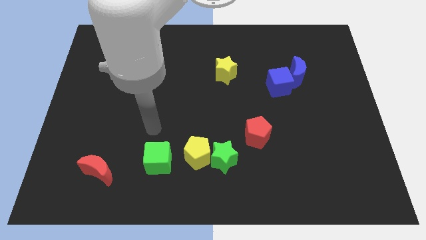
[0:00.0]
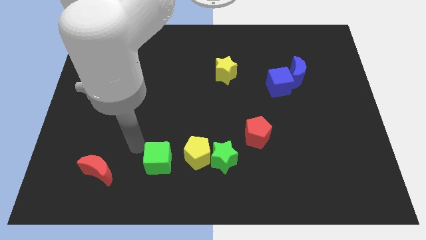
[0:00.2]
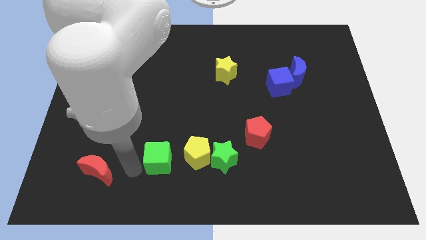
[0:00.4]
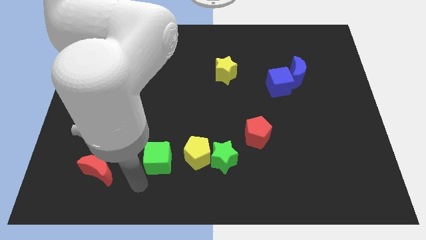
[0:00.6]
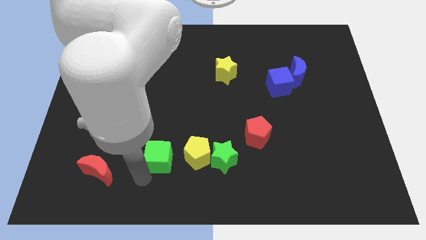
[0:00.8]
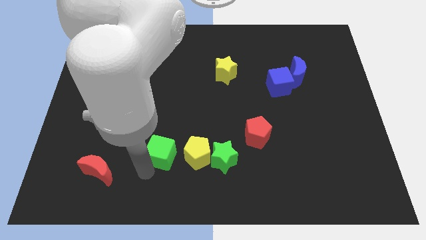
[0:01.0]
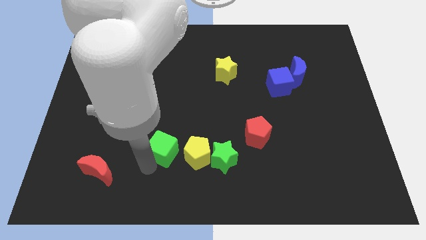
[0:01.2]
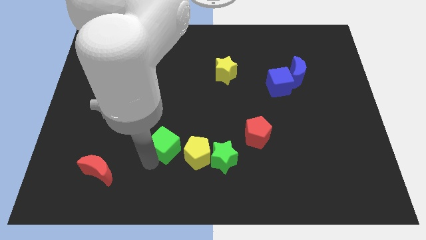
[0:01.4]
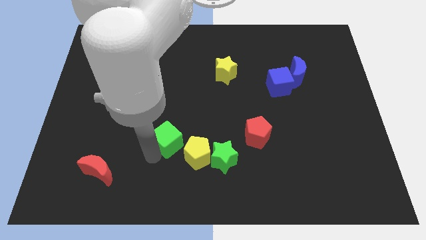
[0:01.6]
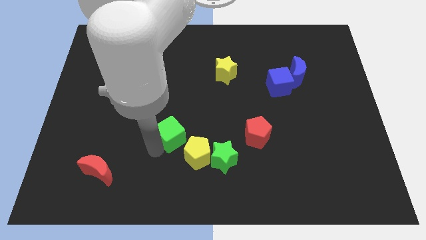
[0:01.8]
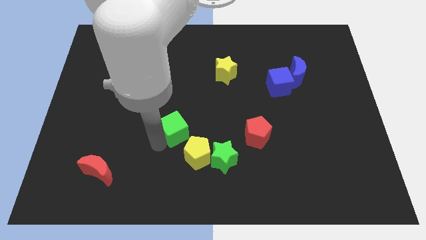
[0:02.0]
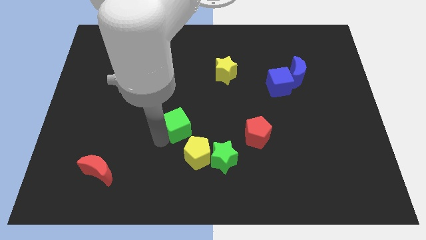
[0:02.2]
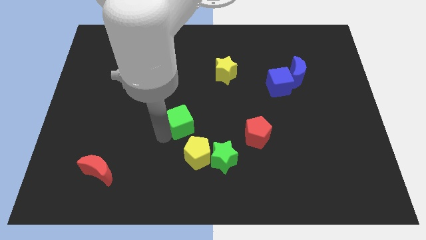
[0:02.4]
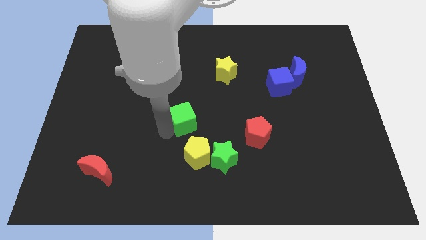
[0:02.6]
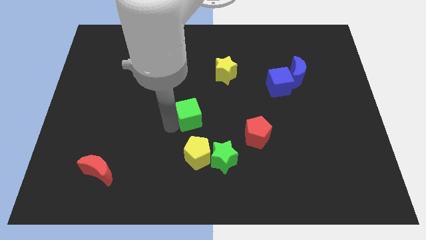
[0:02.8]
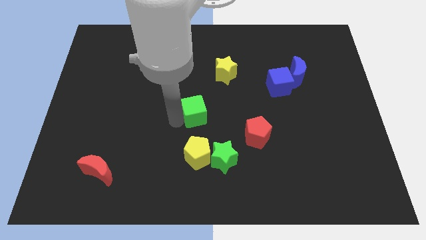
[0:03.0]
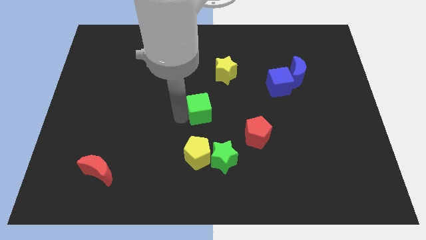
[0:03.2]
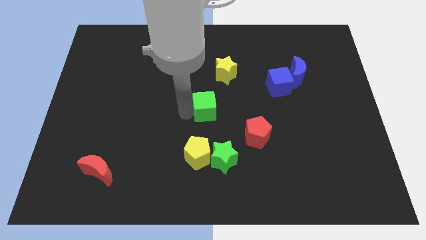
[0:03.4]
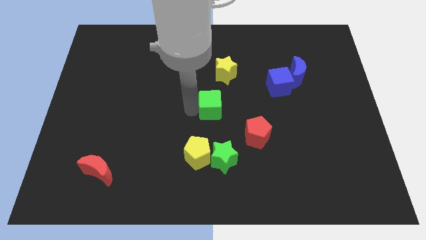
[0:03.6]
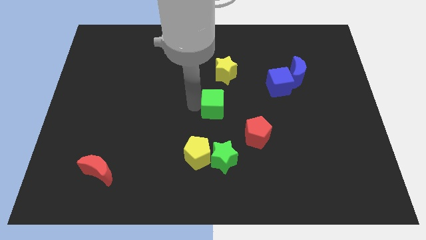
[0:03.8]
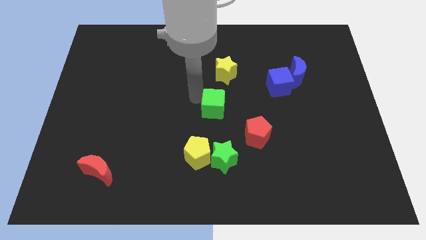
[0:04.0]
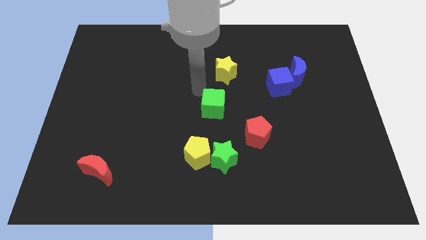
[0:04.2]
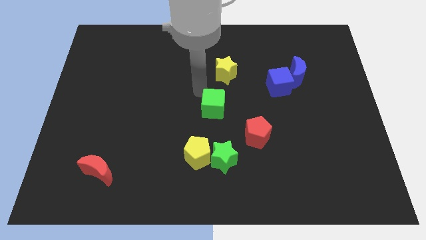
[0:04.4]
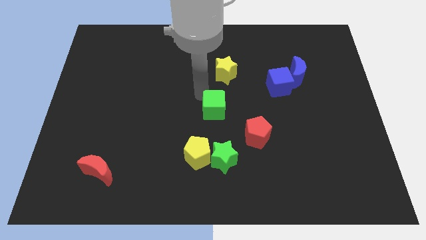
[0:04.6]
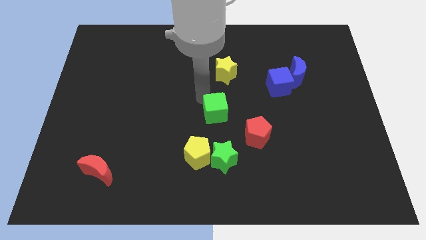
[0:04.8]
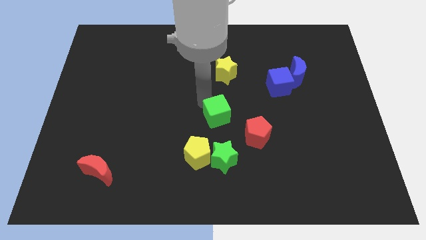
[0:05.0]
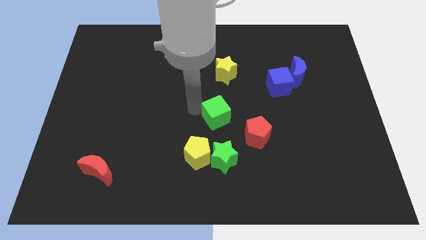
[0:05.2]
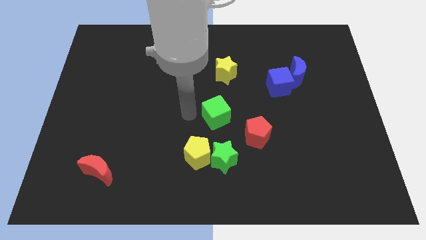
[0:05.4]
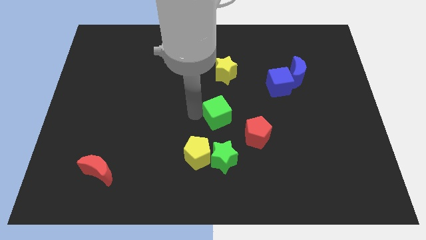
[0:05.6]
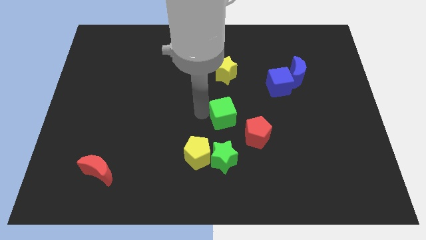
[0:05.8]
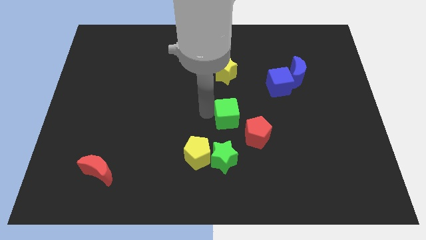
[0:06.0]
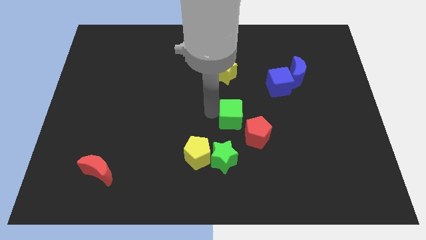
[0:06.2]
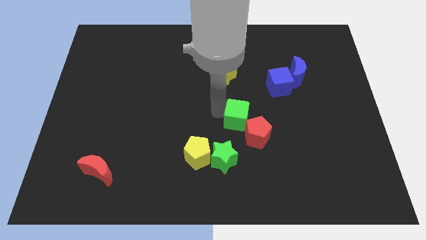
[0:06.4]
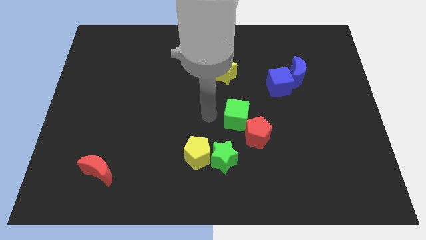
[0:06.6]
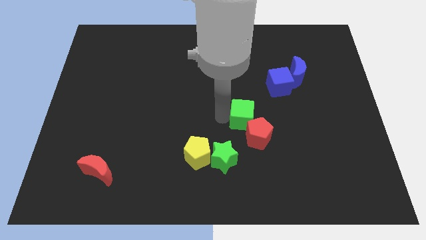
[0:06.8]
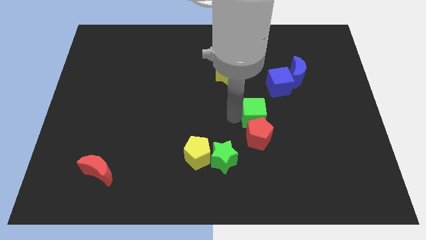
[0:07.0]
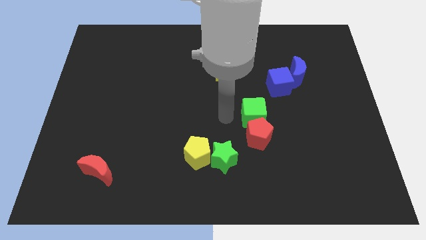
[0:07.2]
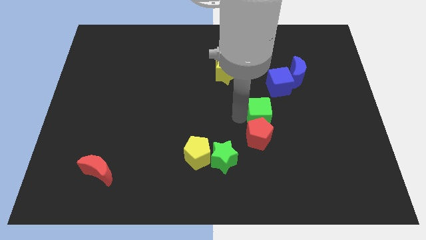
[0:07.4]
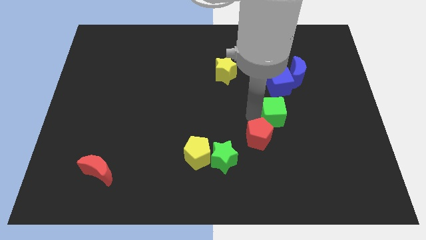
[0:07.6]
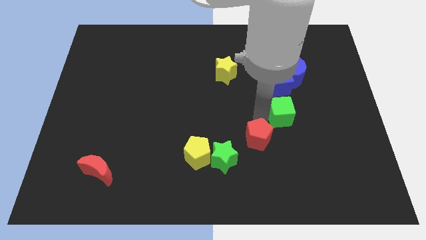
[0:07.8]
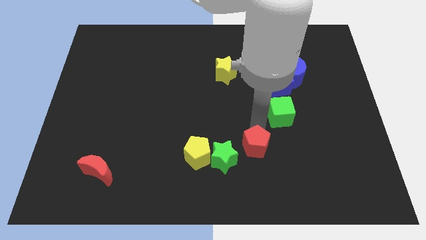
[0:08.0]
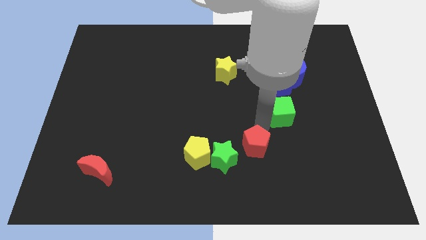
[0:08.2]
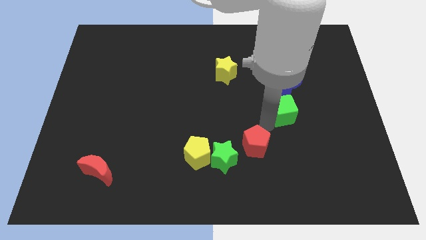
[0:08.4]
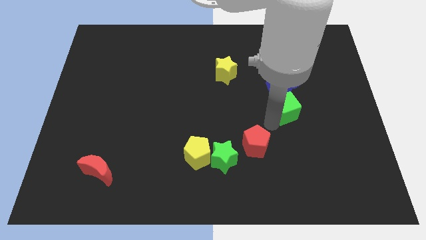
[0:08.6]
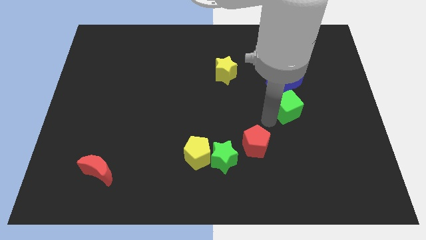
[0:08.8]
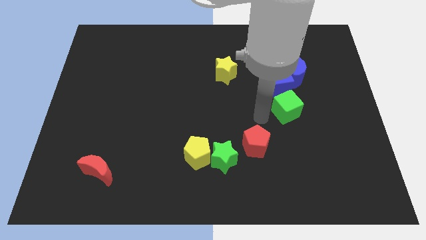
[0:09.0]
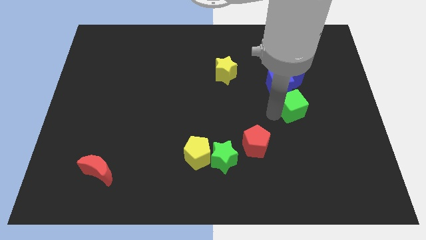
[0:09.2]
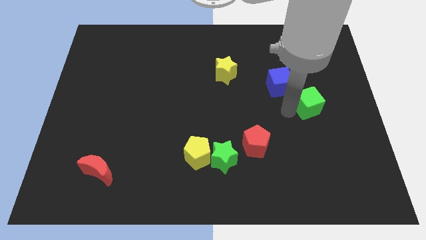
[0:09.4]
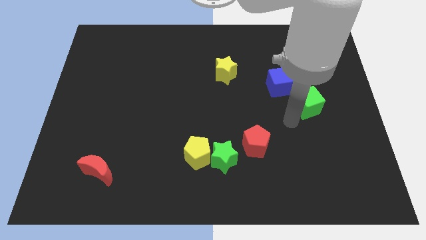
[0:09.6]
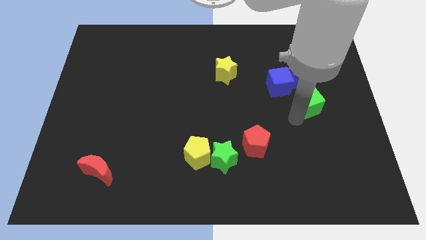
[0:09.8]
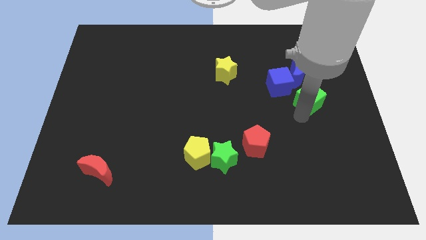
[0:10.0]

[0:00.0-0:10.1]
move the green cube to the bottom right of the blue moon

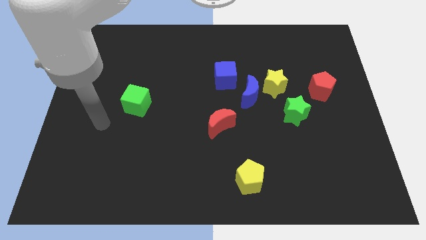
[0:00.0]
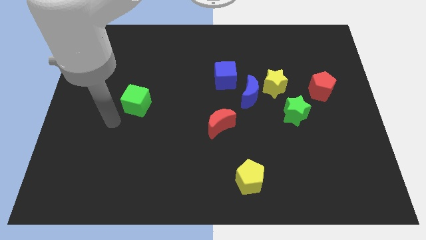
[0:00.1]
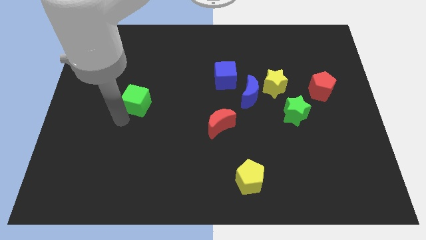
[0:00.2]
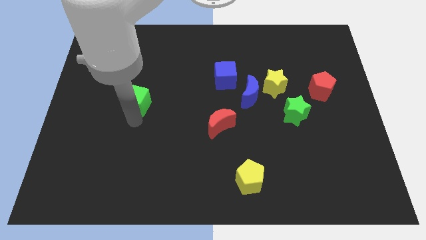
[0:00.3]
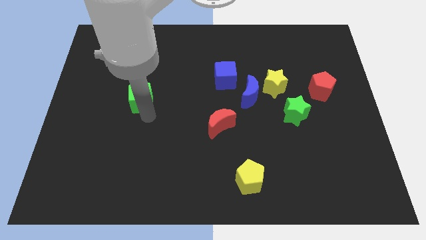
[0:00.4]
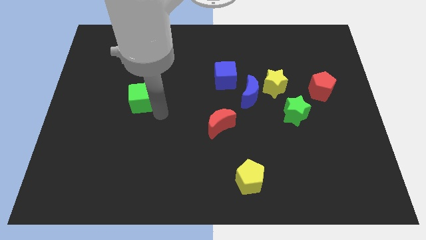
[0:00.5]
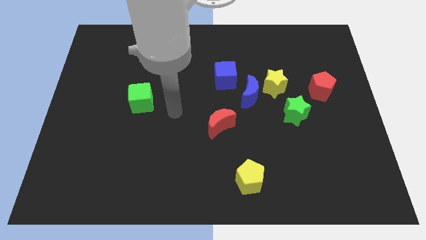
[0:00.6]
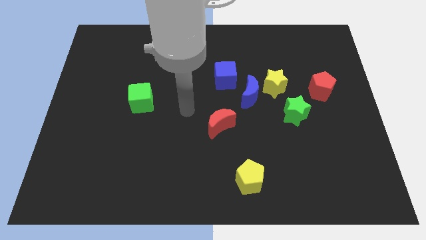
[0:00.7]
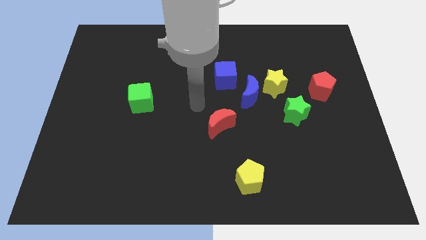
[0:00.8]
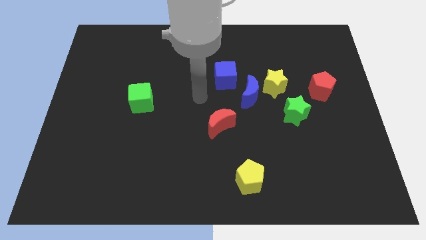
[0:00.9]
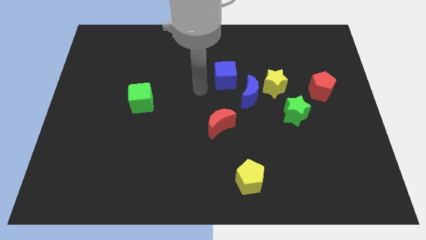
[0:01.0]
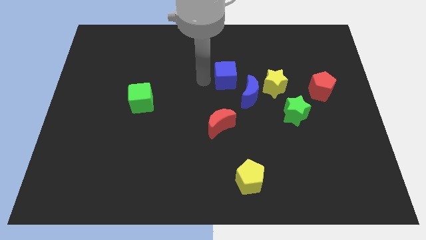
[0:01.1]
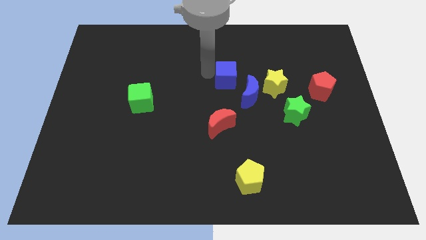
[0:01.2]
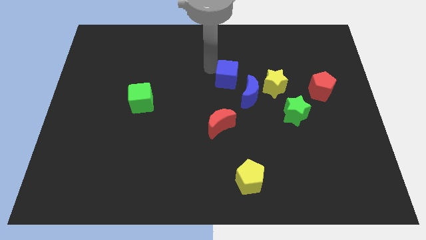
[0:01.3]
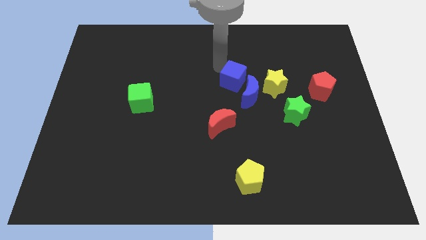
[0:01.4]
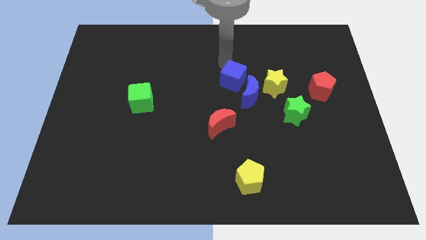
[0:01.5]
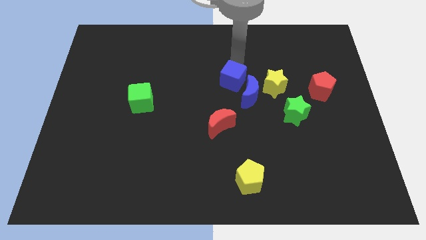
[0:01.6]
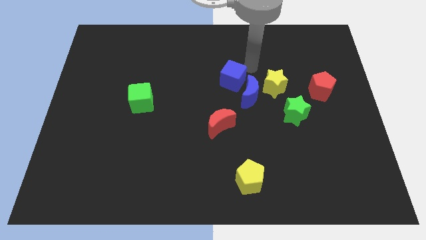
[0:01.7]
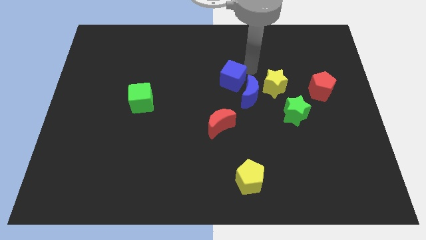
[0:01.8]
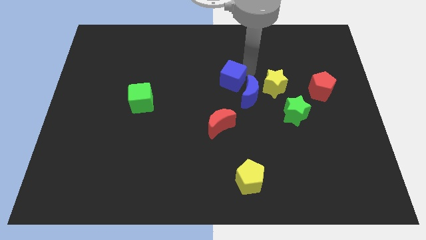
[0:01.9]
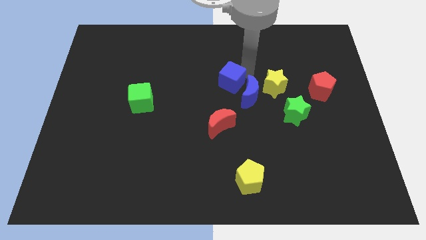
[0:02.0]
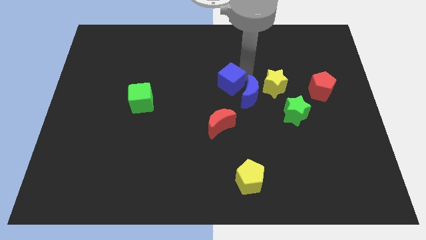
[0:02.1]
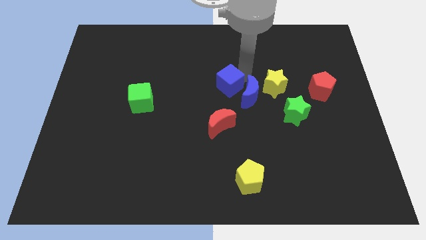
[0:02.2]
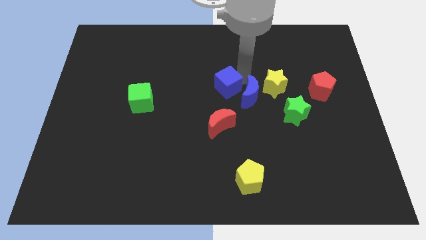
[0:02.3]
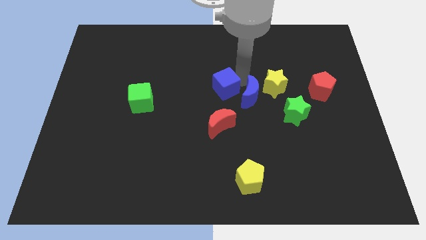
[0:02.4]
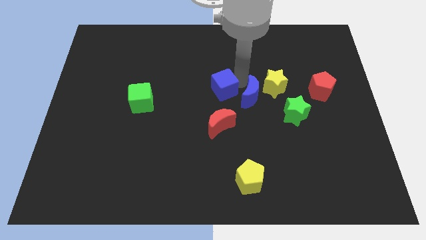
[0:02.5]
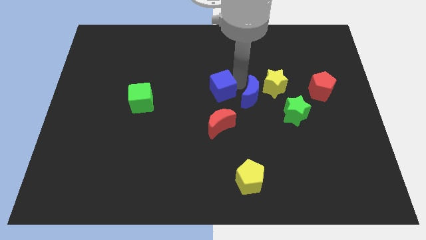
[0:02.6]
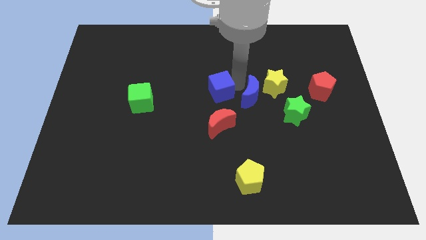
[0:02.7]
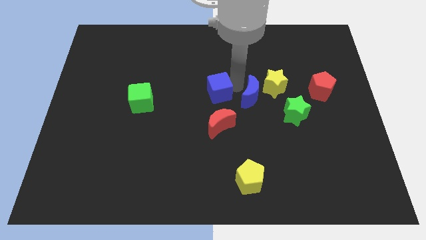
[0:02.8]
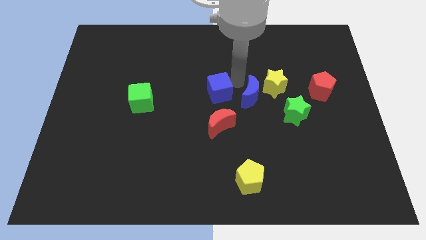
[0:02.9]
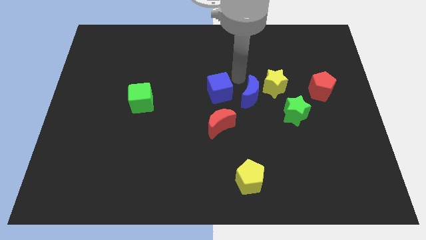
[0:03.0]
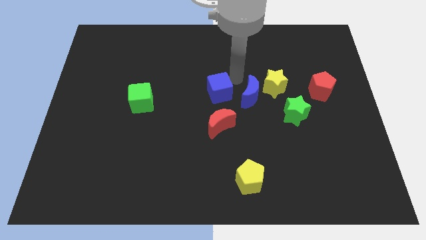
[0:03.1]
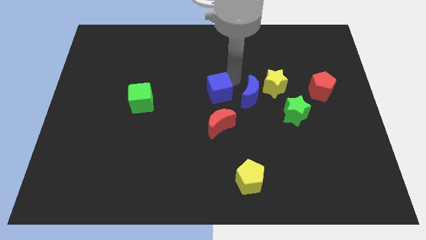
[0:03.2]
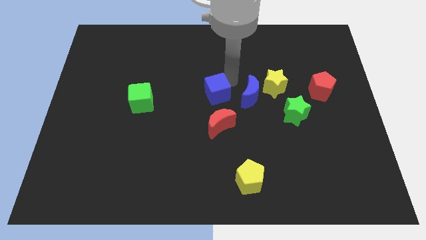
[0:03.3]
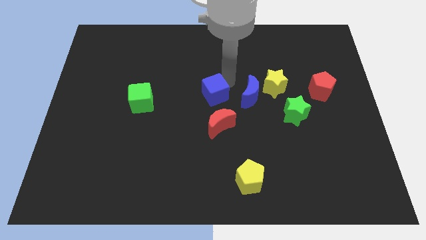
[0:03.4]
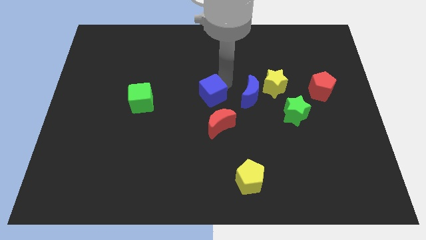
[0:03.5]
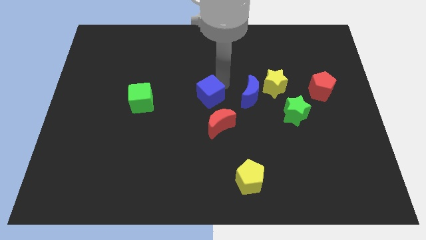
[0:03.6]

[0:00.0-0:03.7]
put the blue cube to the top left side of the red moon
